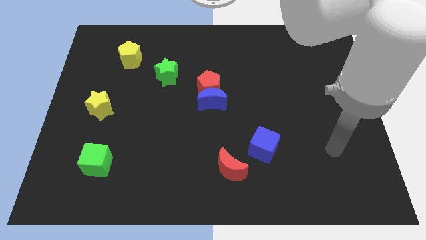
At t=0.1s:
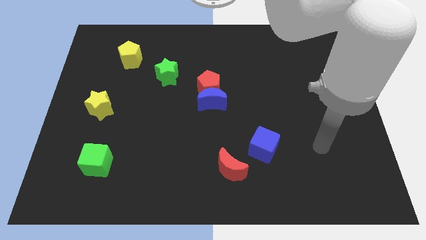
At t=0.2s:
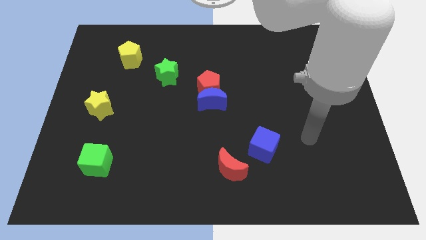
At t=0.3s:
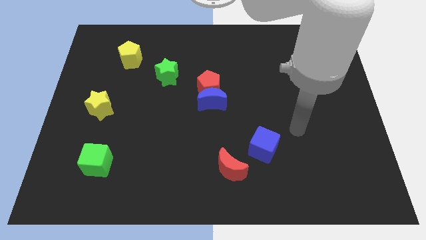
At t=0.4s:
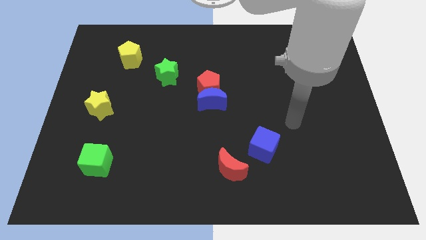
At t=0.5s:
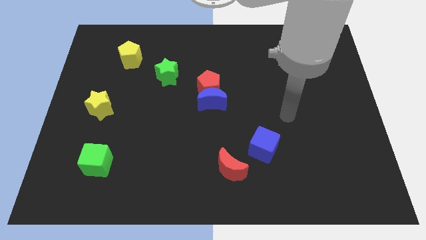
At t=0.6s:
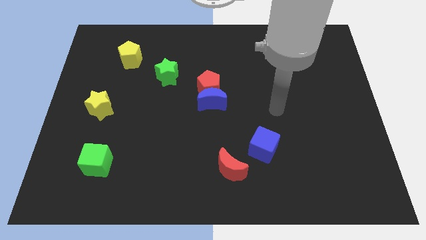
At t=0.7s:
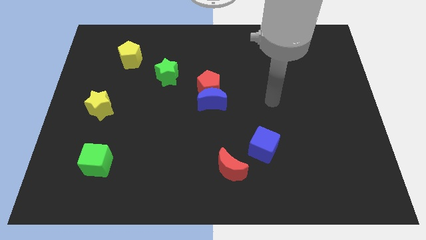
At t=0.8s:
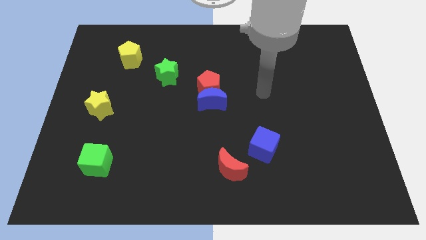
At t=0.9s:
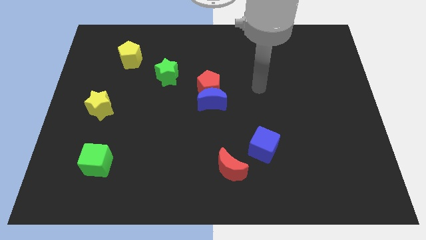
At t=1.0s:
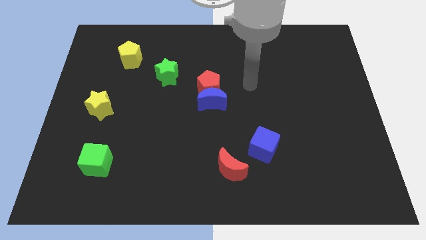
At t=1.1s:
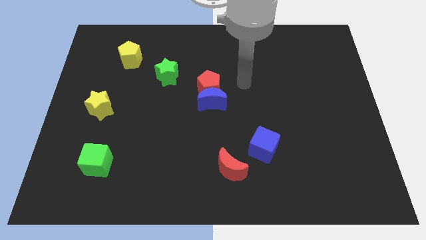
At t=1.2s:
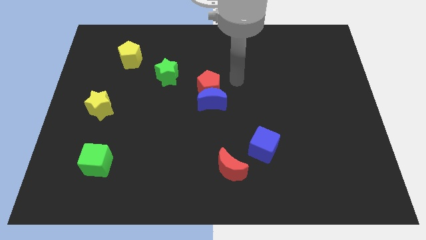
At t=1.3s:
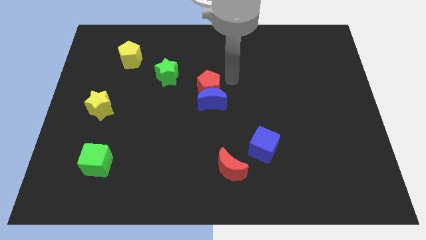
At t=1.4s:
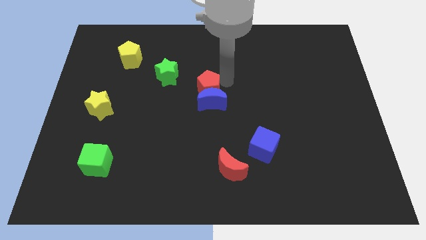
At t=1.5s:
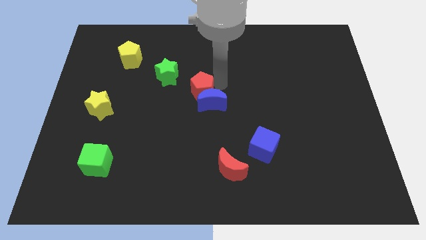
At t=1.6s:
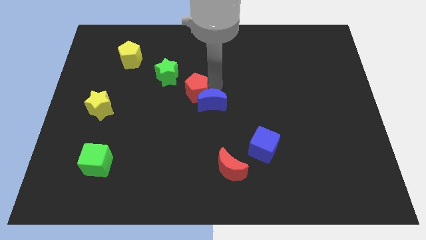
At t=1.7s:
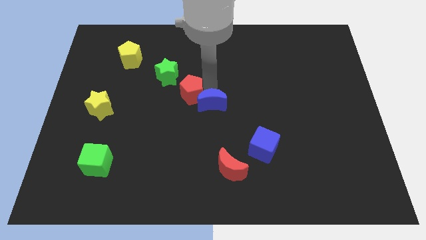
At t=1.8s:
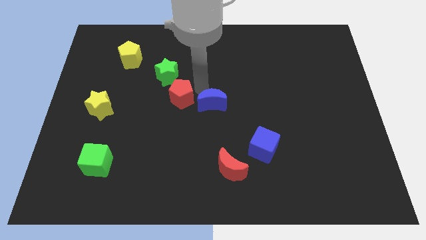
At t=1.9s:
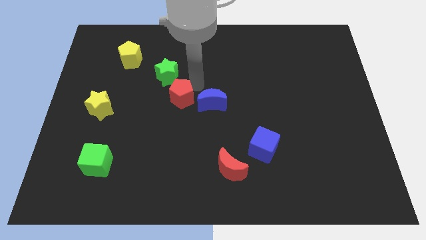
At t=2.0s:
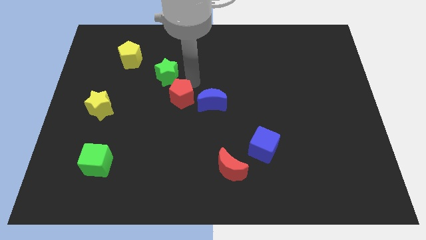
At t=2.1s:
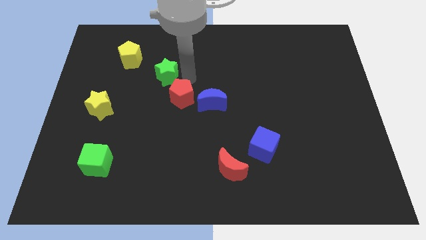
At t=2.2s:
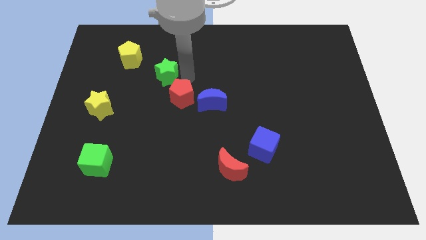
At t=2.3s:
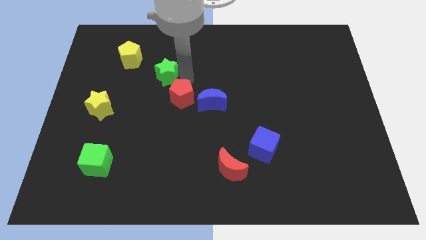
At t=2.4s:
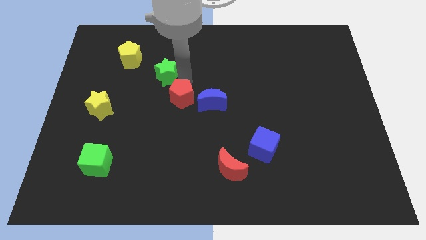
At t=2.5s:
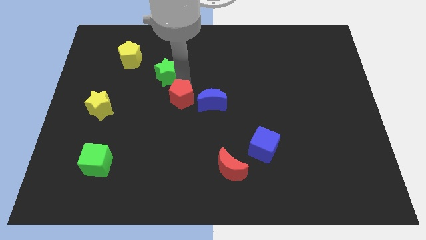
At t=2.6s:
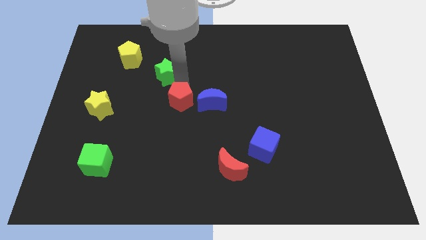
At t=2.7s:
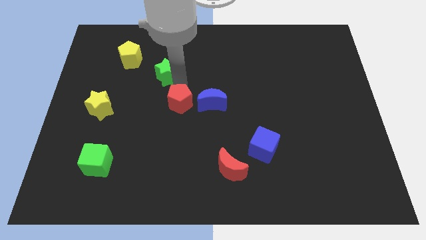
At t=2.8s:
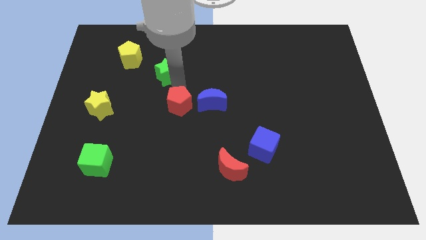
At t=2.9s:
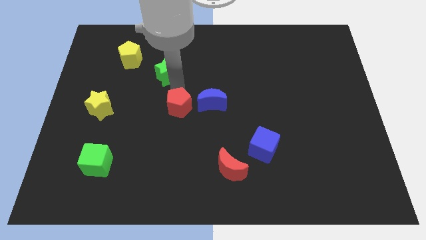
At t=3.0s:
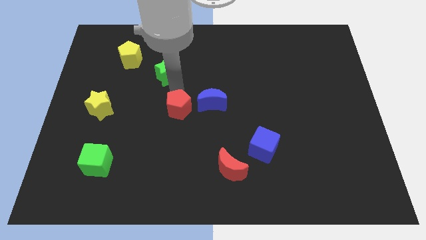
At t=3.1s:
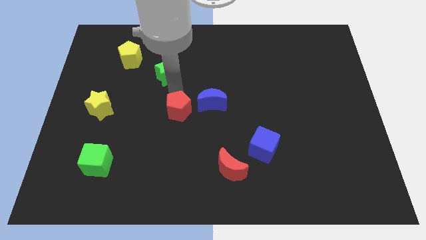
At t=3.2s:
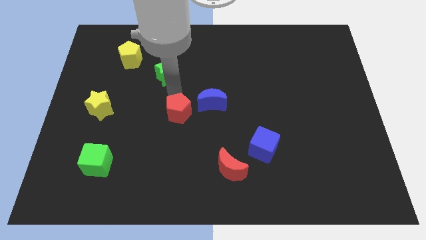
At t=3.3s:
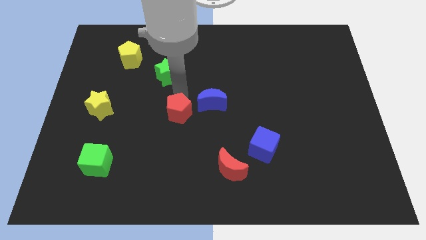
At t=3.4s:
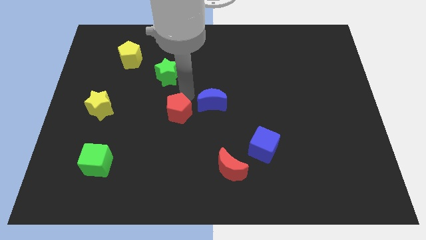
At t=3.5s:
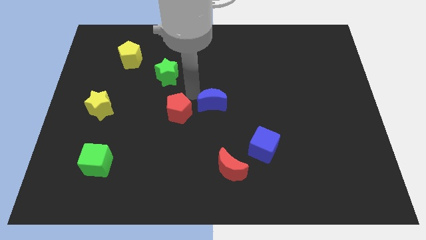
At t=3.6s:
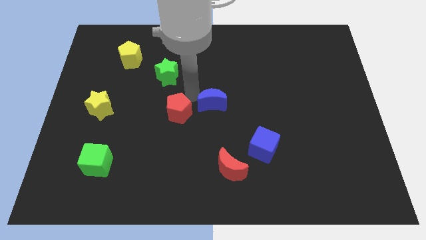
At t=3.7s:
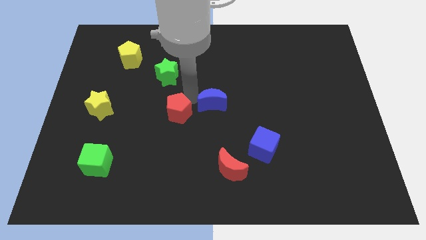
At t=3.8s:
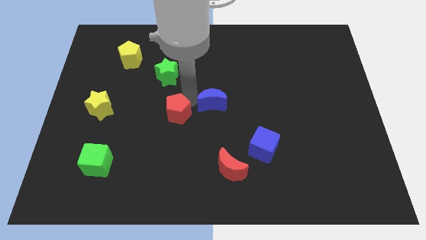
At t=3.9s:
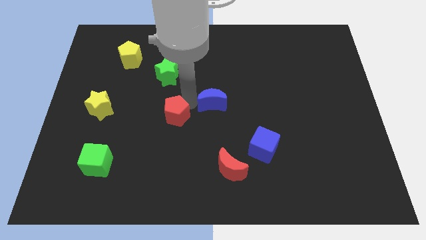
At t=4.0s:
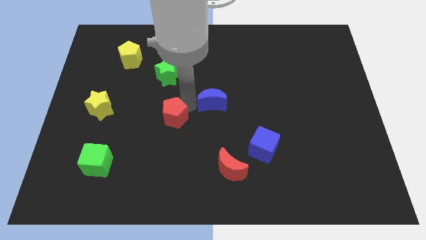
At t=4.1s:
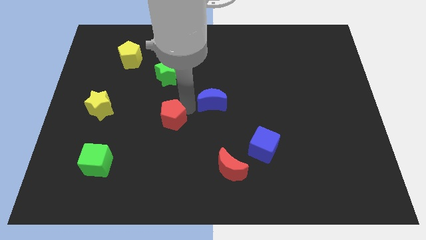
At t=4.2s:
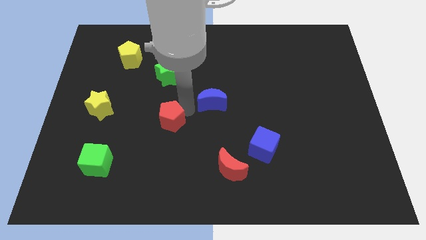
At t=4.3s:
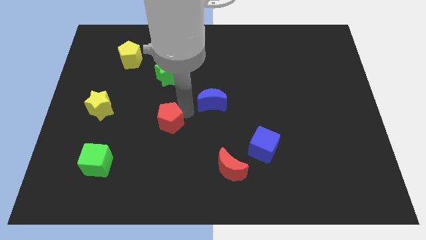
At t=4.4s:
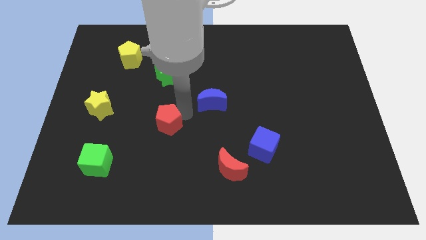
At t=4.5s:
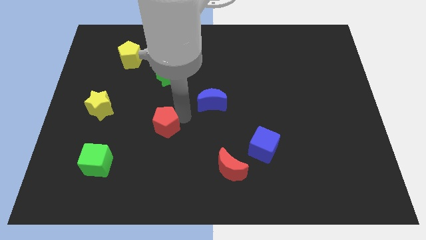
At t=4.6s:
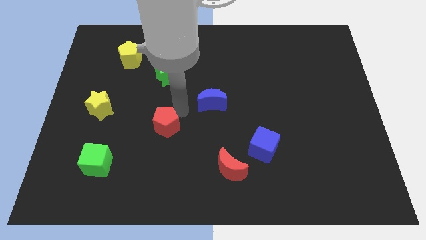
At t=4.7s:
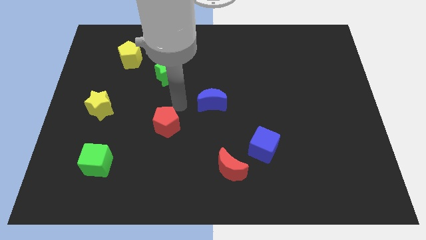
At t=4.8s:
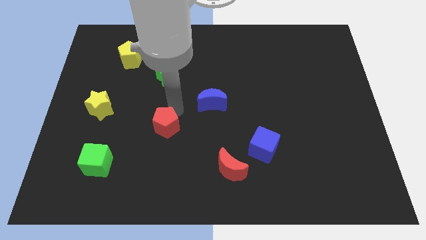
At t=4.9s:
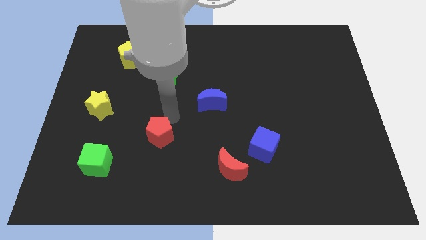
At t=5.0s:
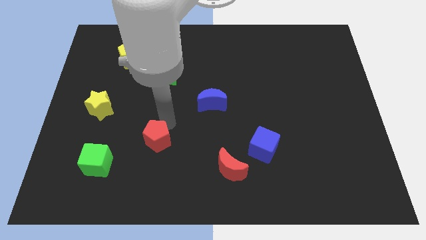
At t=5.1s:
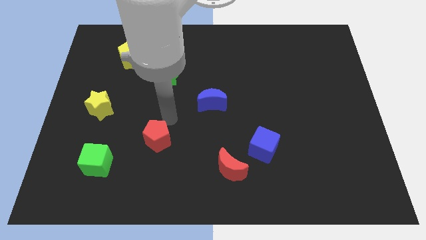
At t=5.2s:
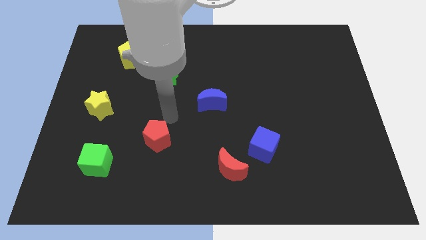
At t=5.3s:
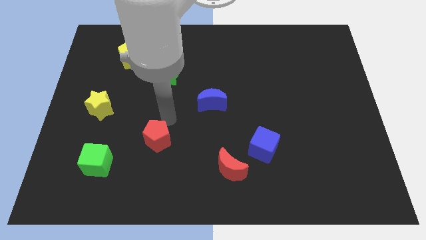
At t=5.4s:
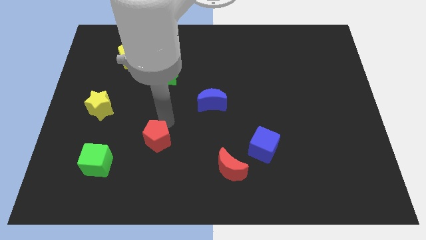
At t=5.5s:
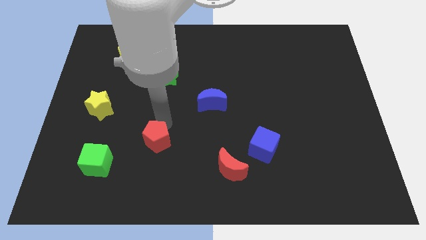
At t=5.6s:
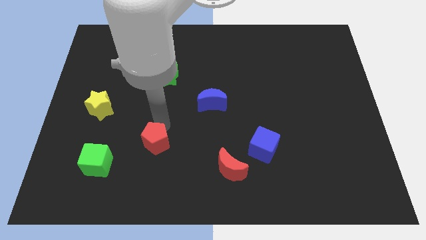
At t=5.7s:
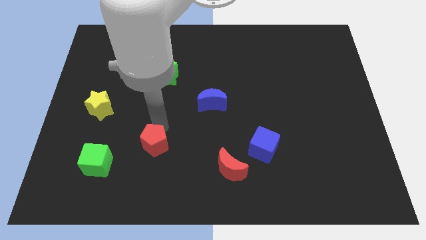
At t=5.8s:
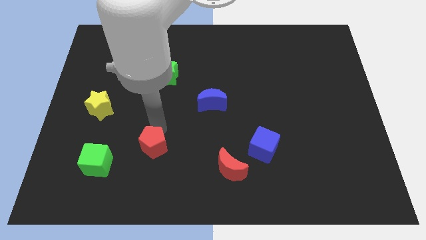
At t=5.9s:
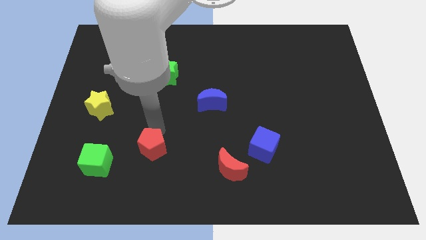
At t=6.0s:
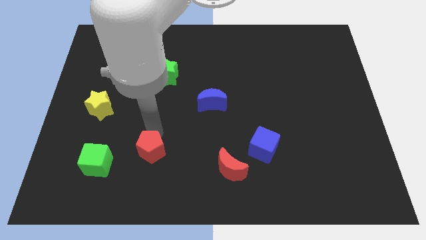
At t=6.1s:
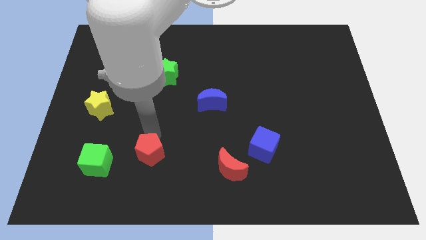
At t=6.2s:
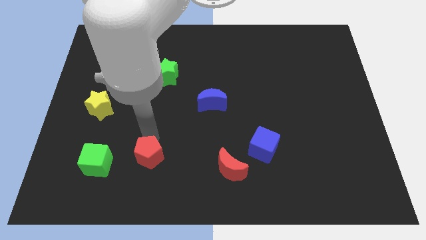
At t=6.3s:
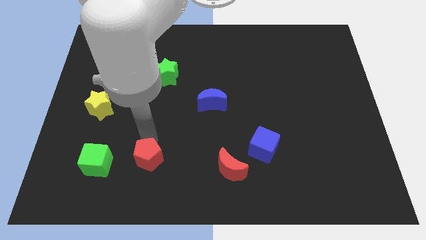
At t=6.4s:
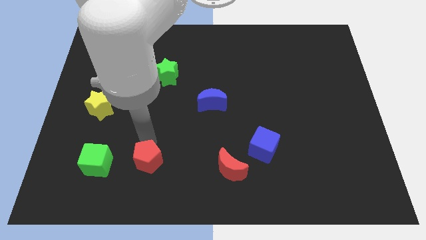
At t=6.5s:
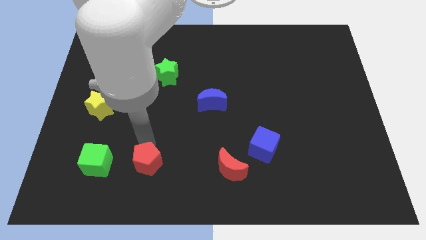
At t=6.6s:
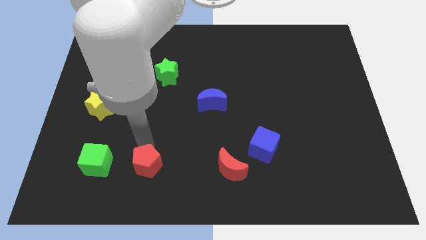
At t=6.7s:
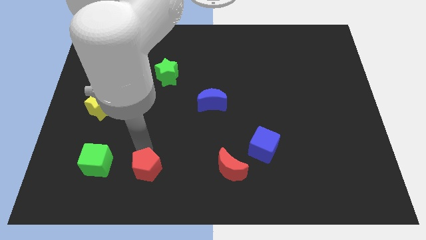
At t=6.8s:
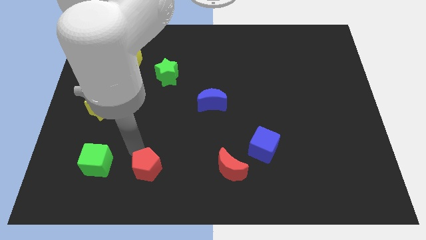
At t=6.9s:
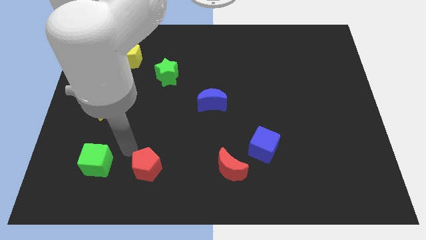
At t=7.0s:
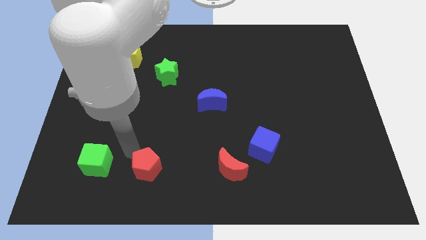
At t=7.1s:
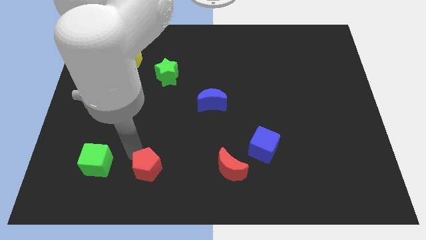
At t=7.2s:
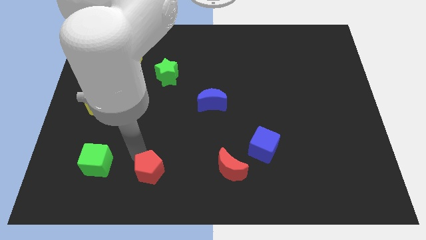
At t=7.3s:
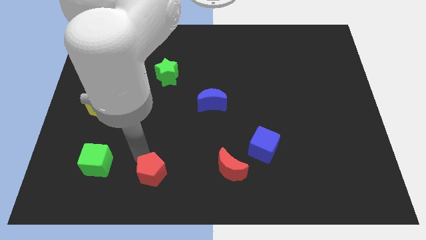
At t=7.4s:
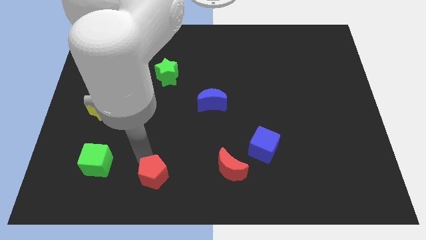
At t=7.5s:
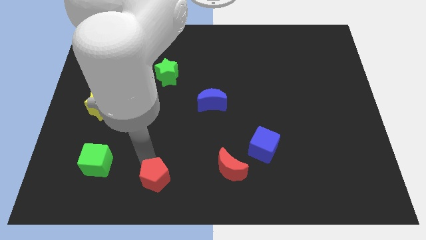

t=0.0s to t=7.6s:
move the red pentagon to the bottom
